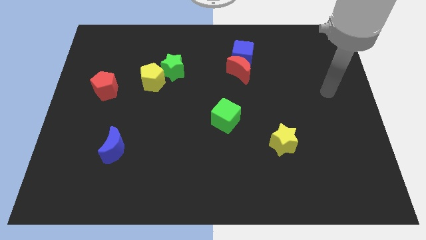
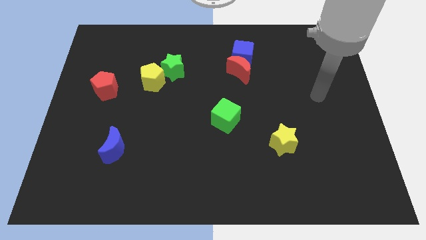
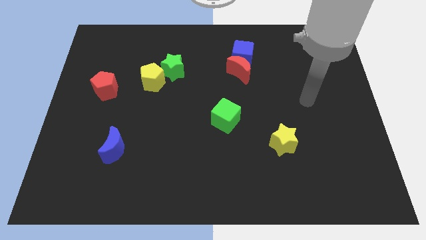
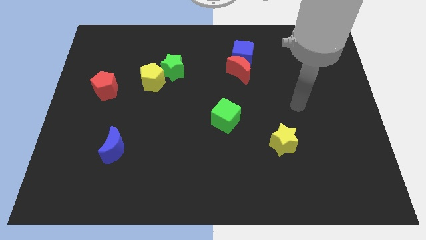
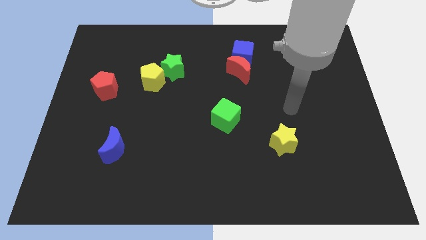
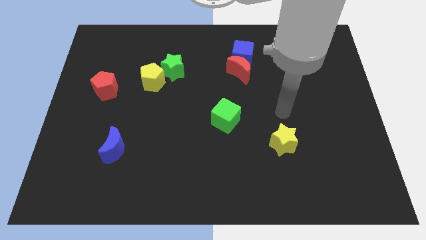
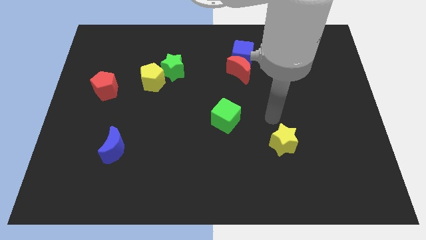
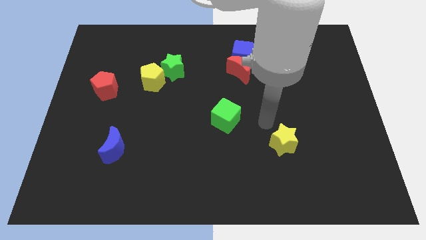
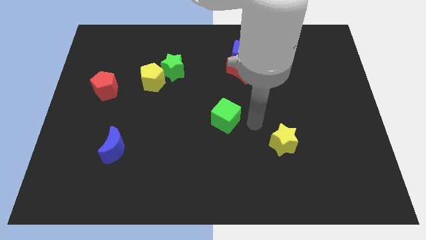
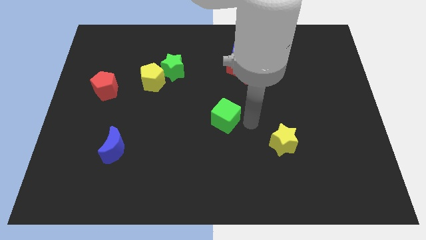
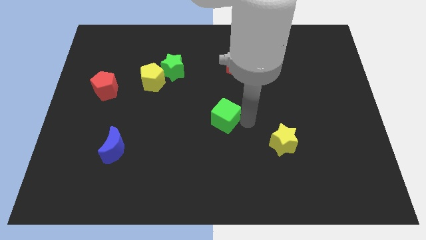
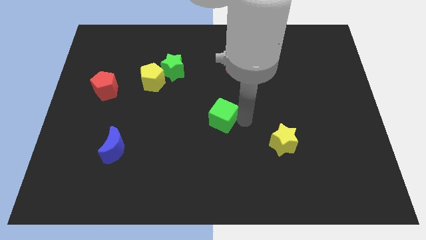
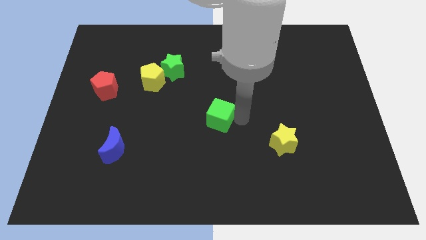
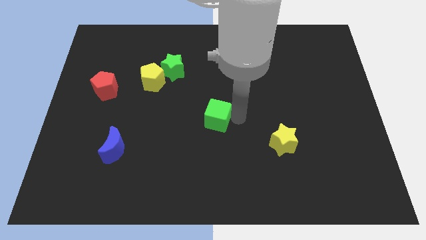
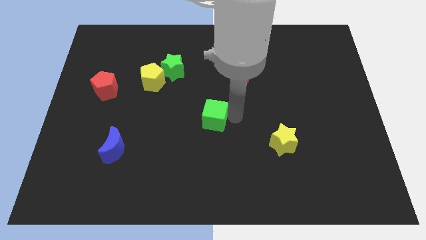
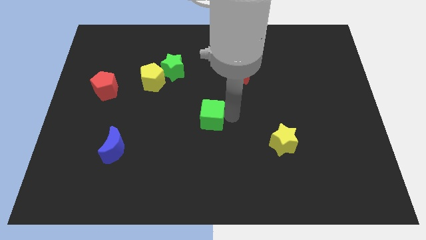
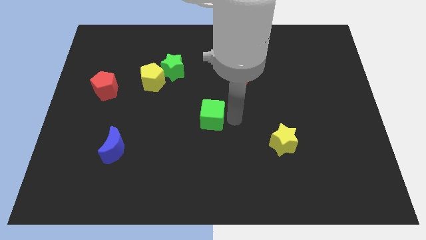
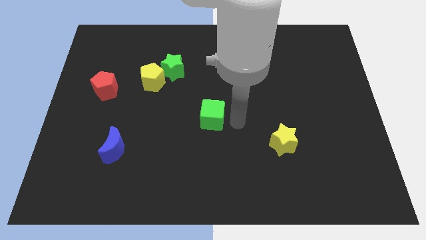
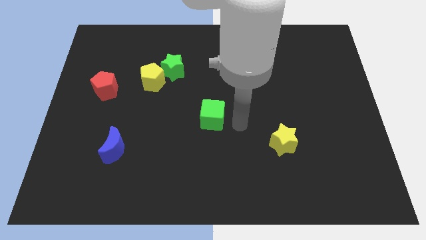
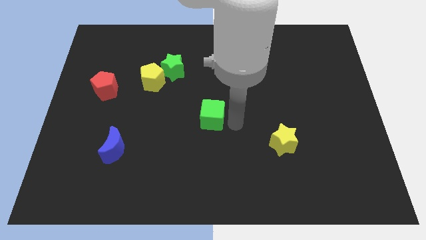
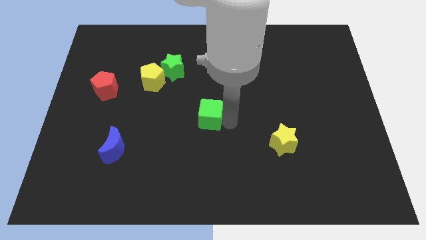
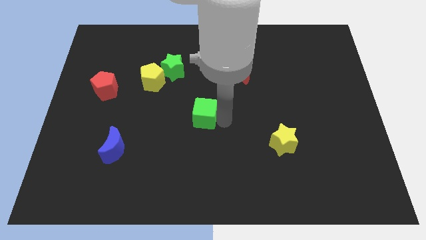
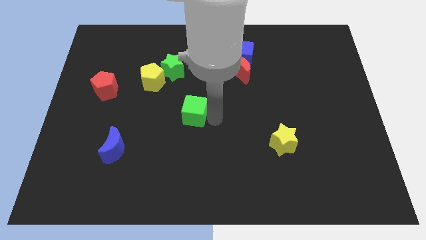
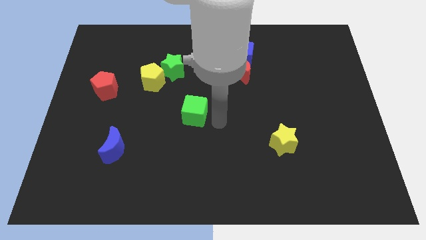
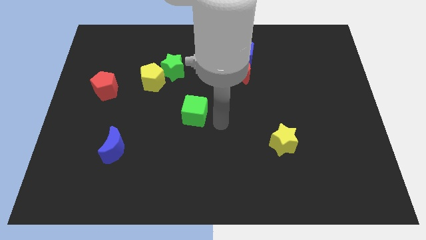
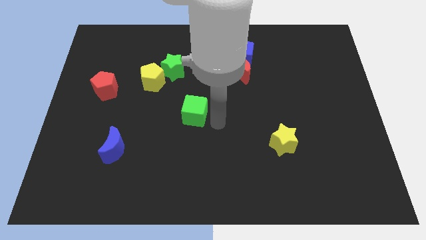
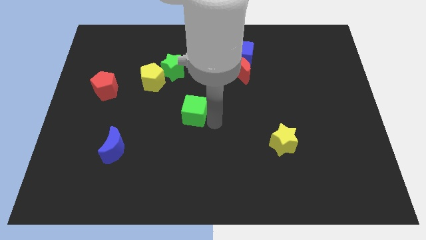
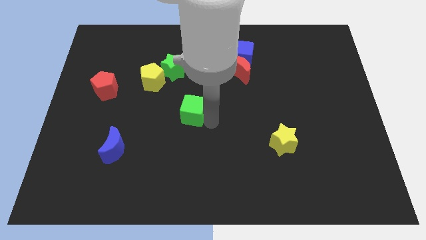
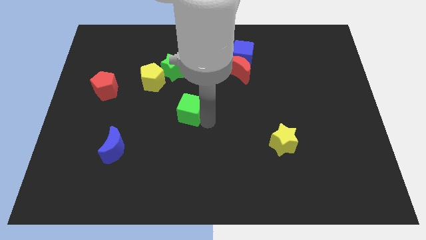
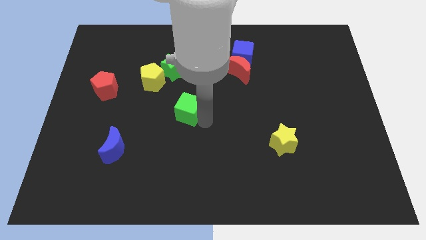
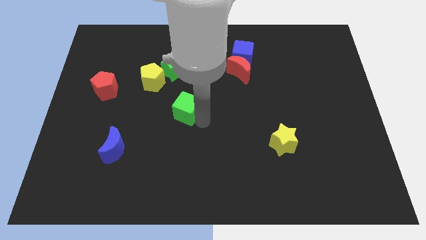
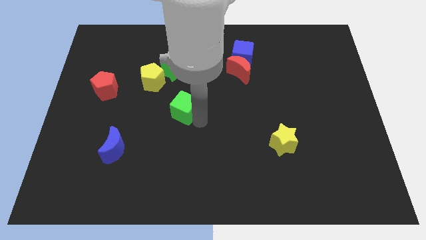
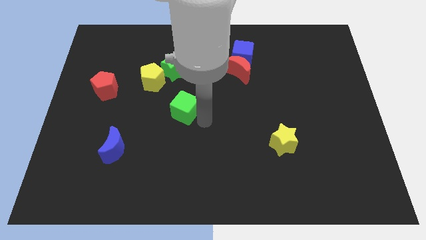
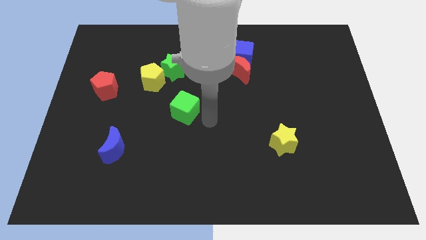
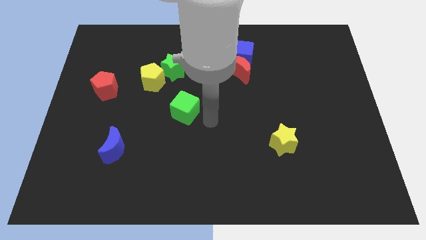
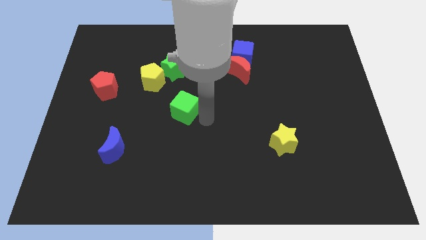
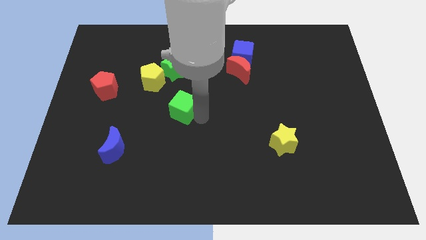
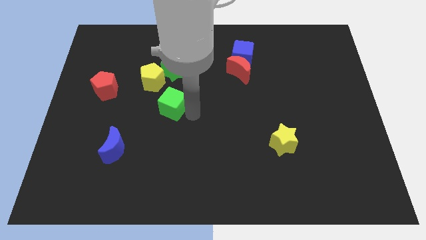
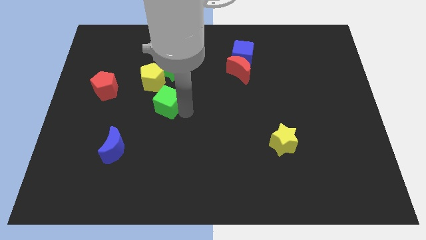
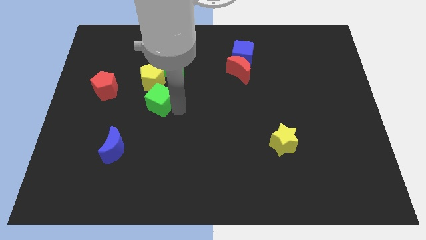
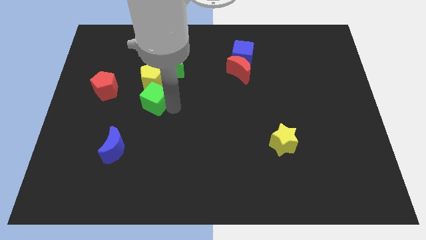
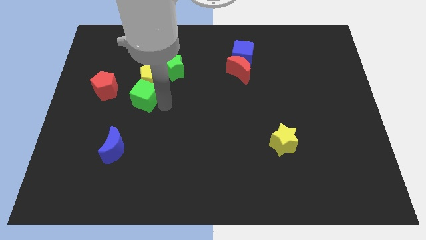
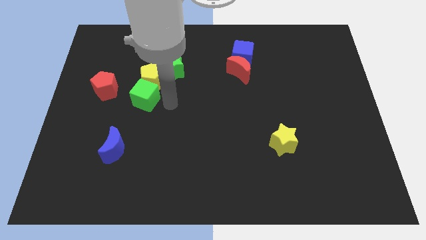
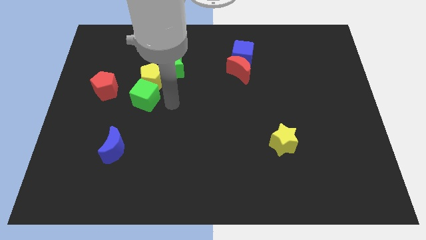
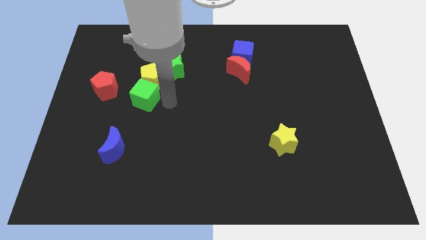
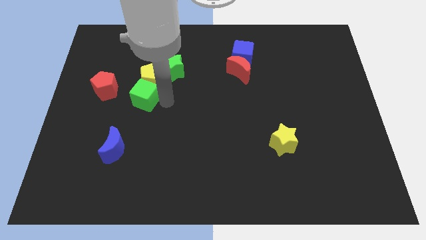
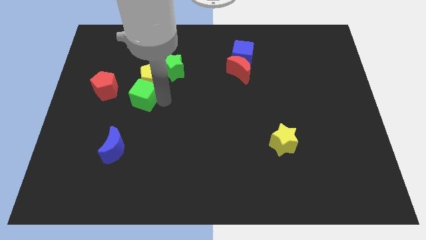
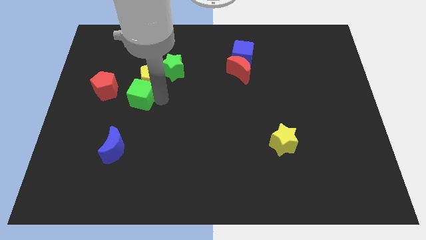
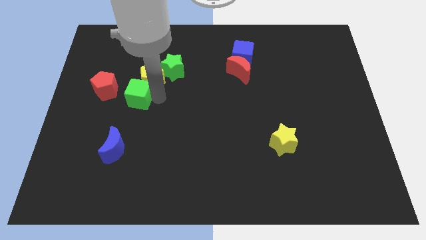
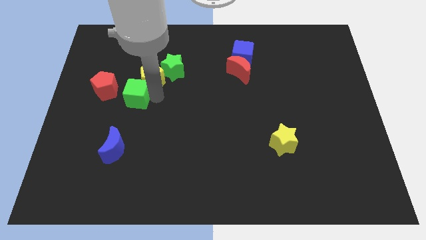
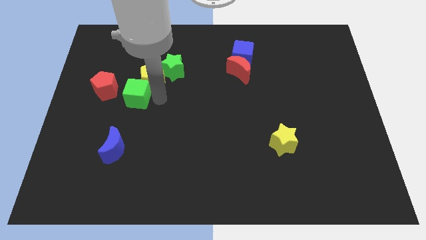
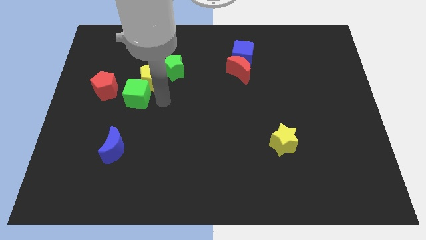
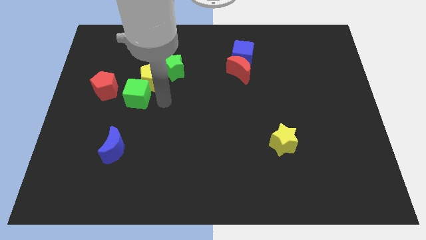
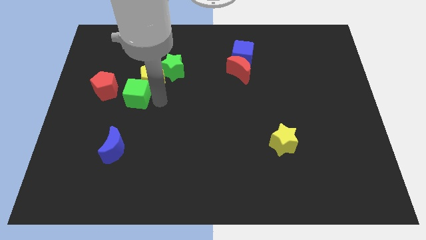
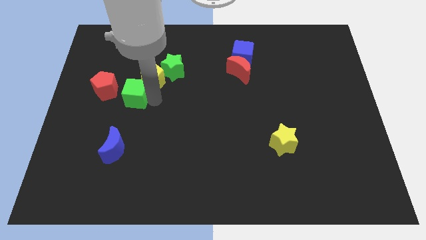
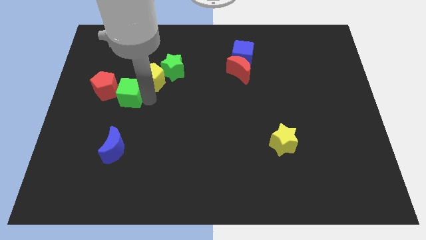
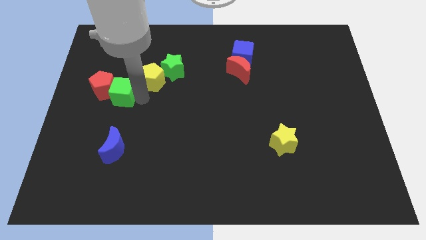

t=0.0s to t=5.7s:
move the green cube to the red pentagon

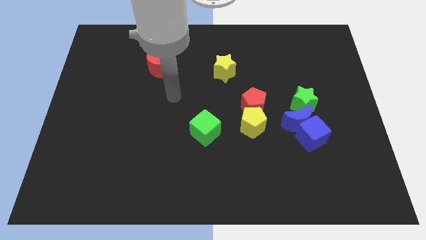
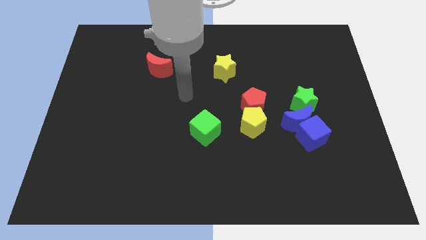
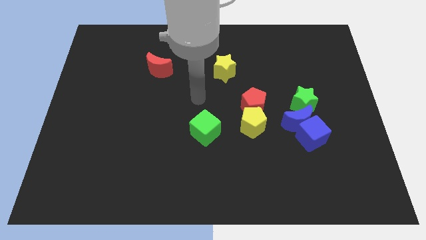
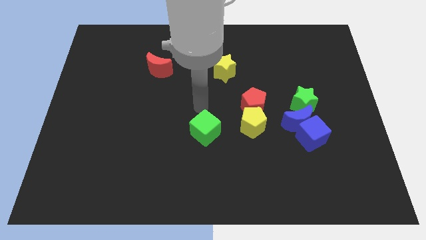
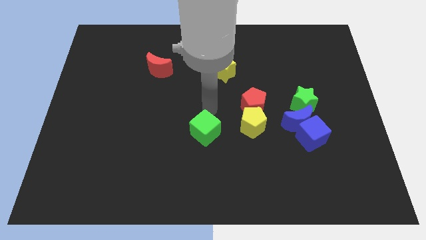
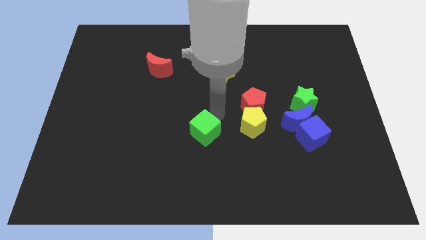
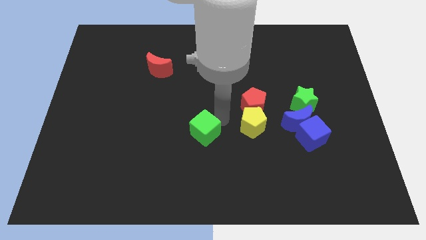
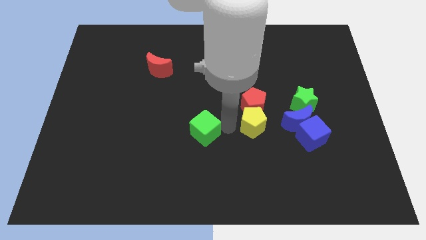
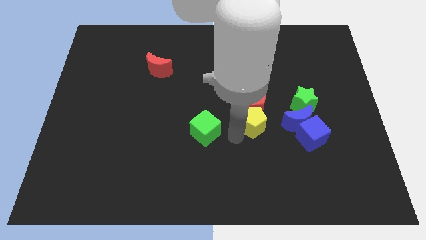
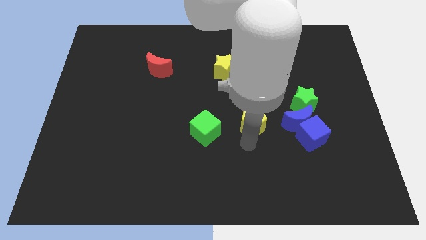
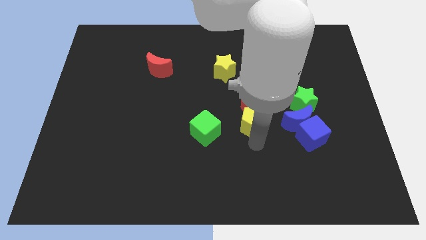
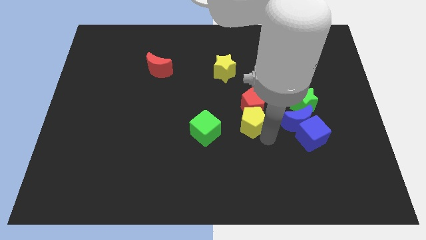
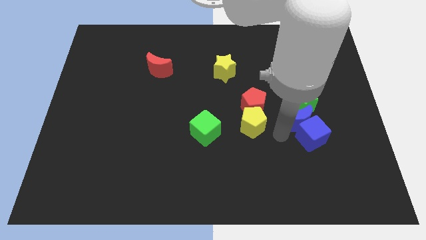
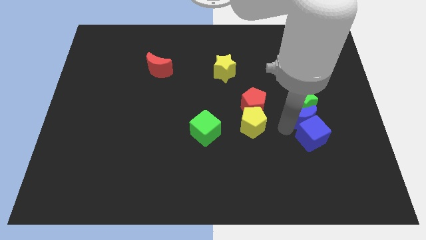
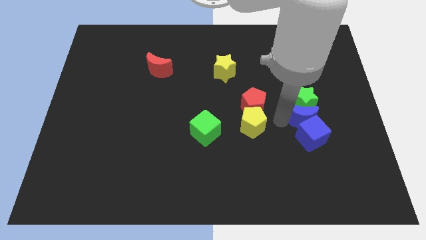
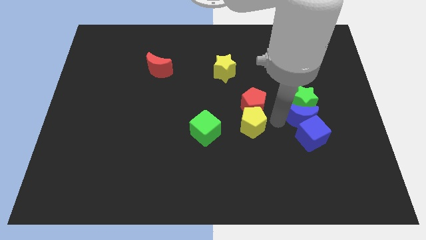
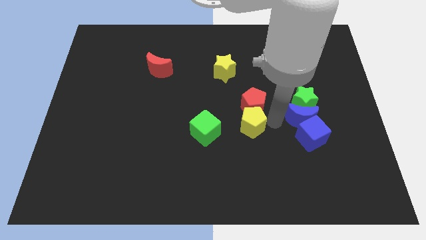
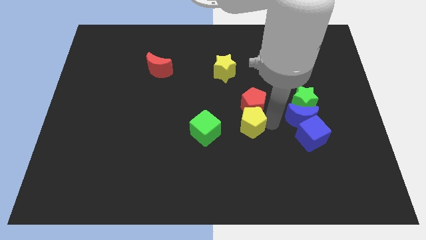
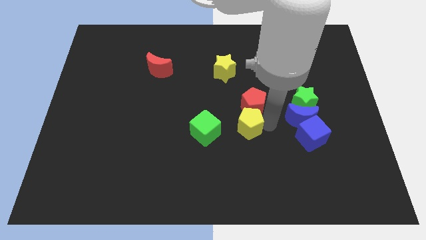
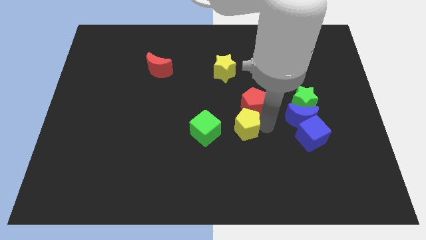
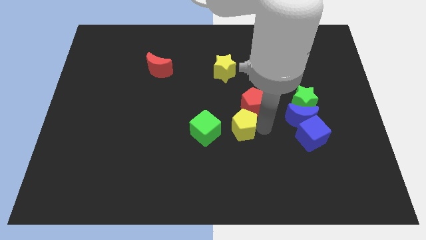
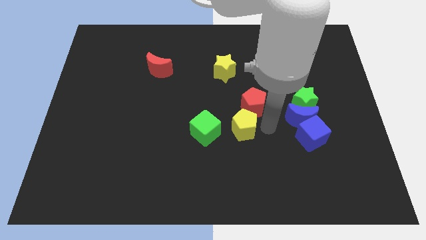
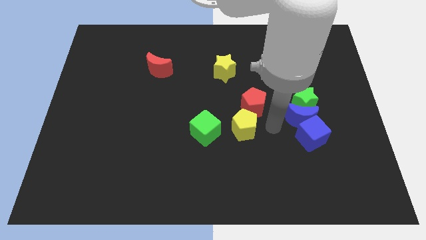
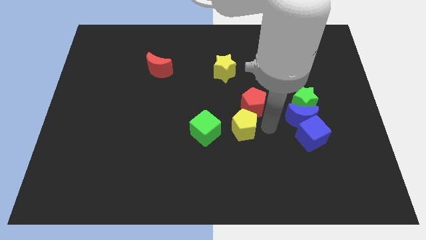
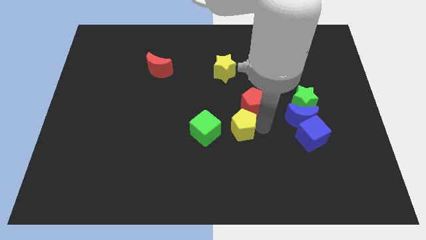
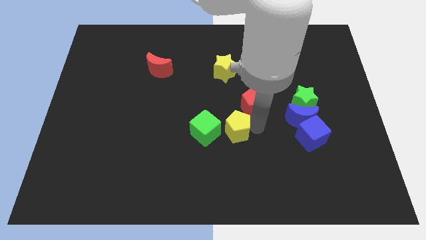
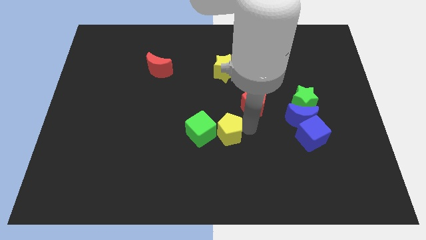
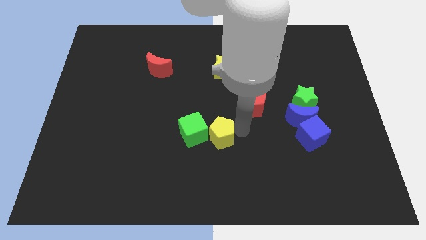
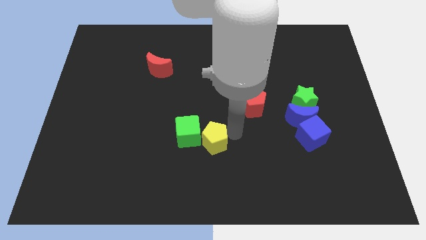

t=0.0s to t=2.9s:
move the yellow pentagon close to the green cube
